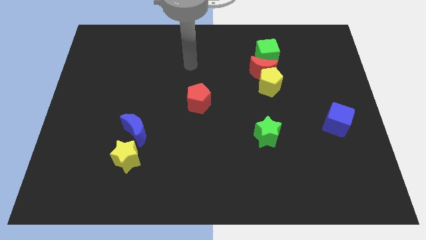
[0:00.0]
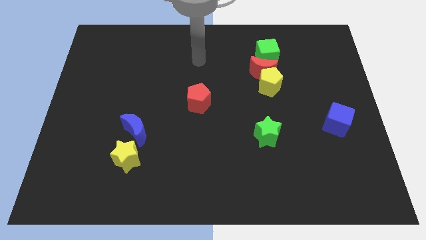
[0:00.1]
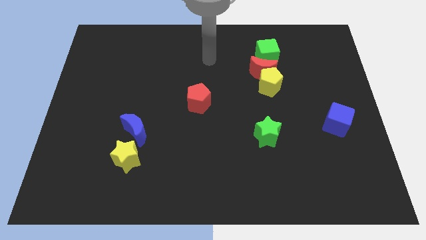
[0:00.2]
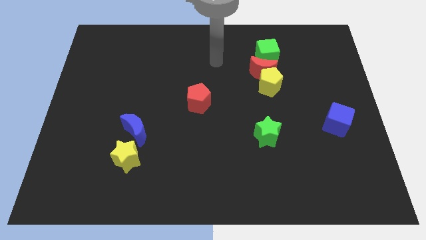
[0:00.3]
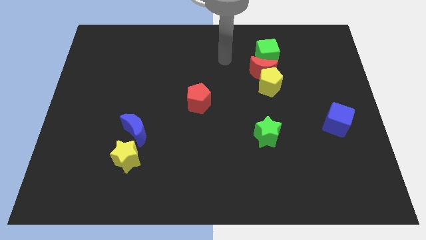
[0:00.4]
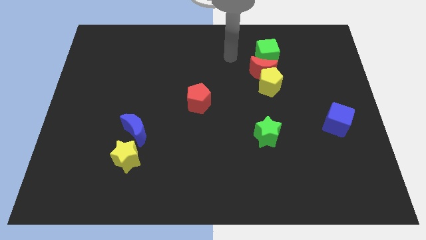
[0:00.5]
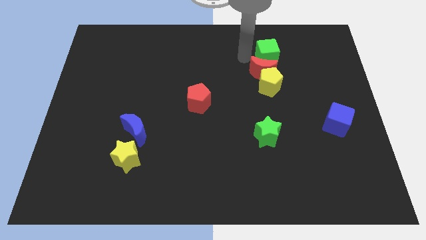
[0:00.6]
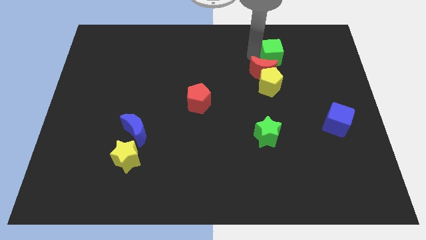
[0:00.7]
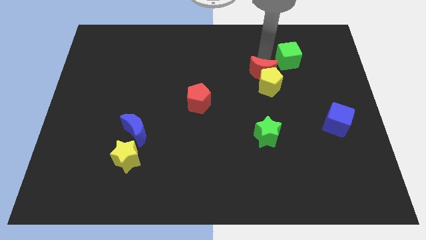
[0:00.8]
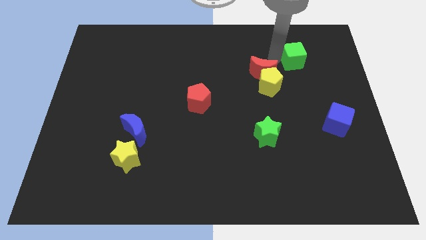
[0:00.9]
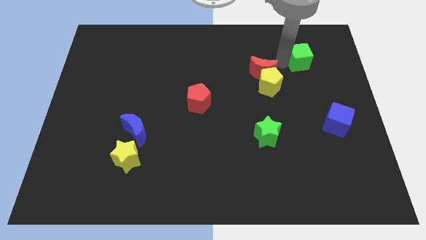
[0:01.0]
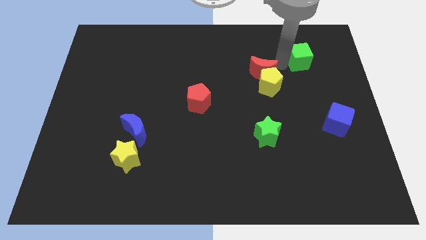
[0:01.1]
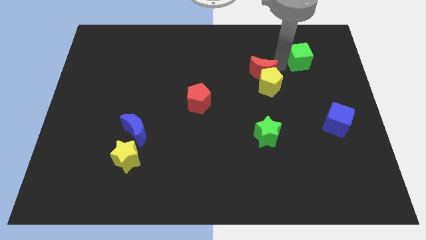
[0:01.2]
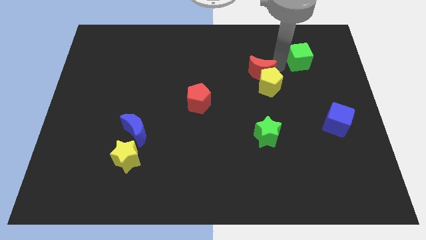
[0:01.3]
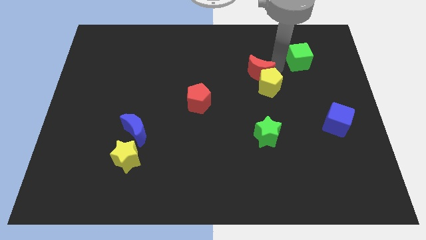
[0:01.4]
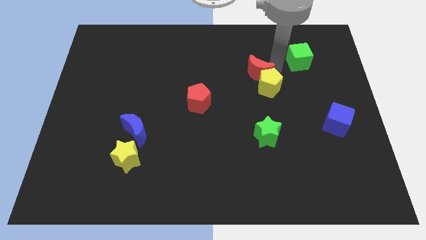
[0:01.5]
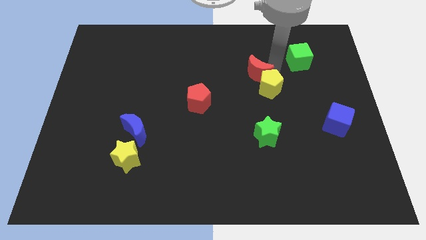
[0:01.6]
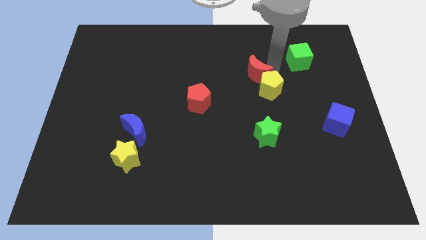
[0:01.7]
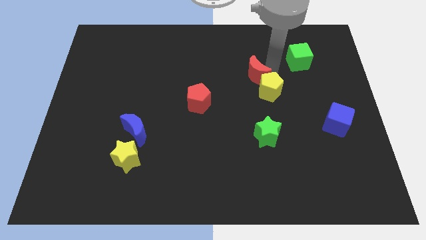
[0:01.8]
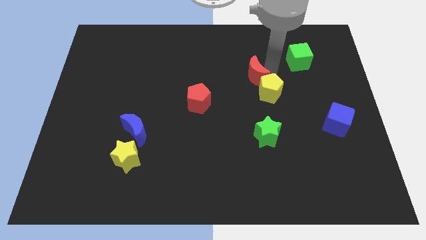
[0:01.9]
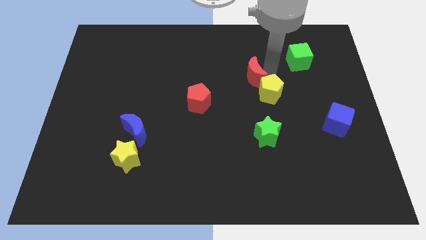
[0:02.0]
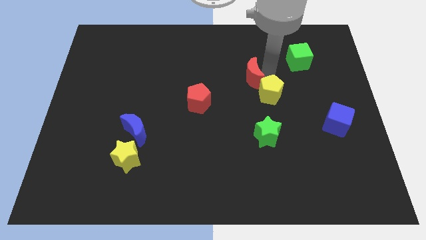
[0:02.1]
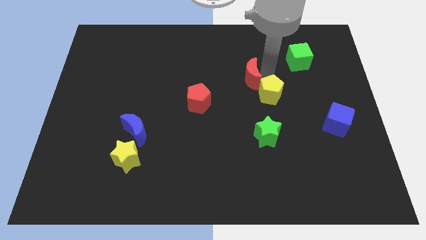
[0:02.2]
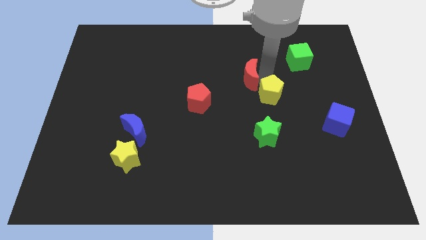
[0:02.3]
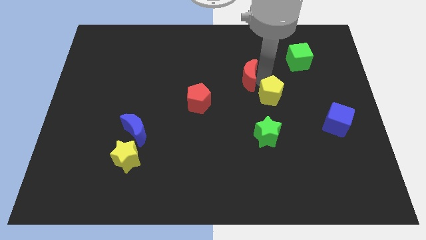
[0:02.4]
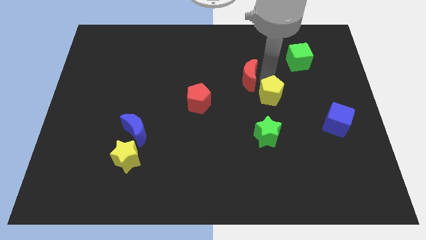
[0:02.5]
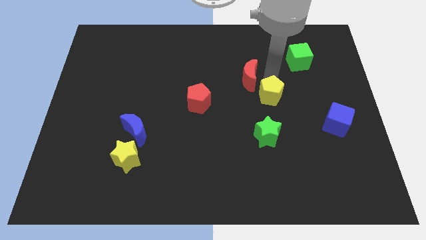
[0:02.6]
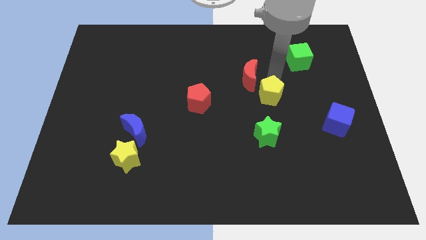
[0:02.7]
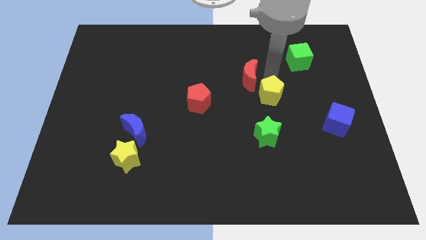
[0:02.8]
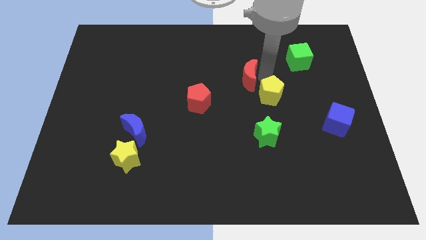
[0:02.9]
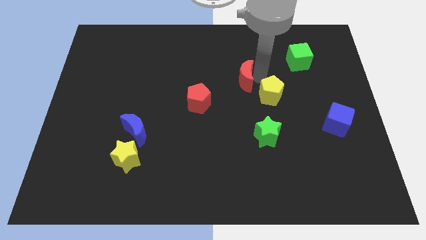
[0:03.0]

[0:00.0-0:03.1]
separate the red moon from the yellow pentagon and green cube

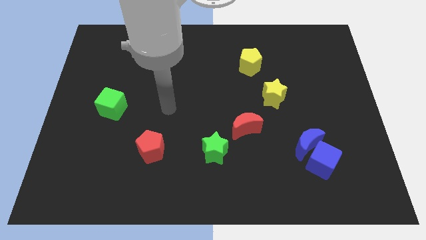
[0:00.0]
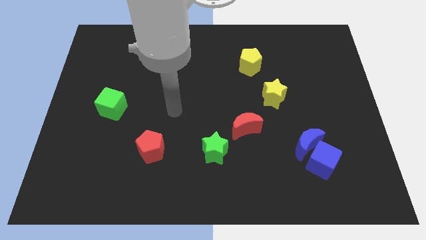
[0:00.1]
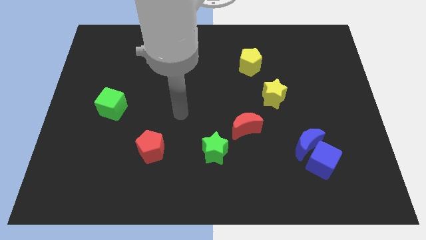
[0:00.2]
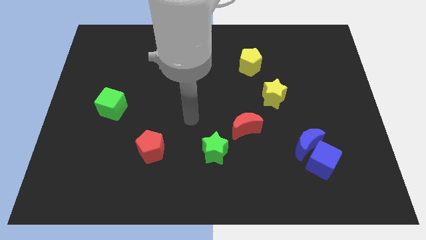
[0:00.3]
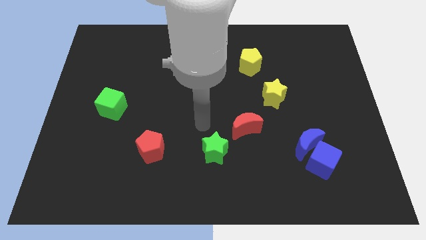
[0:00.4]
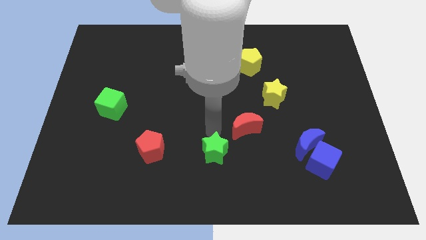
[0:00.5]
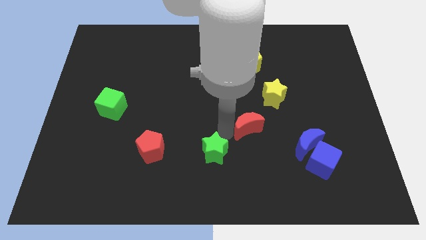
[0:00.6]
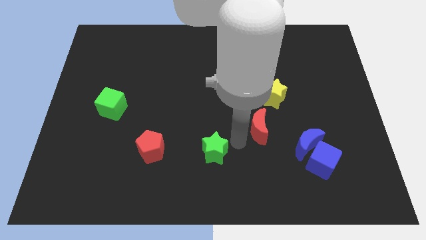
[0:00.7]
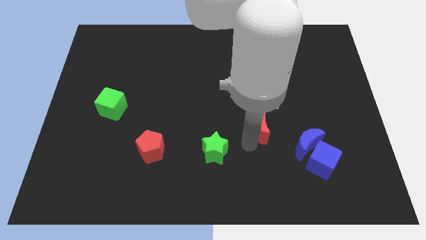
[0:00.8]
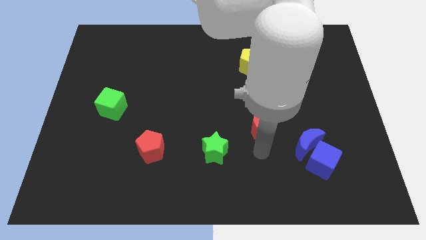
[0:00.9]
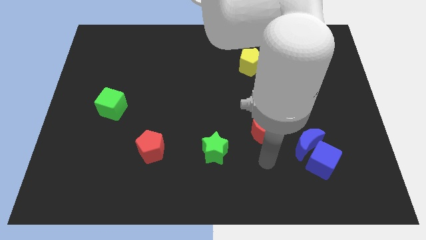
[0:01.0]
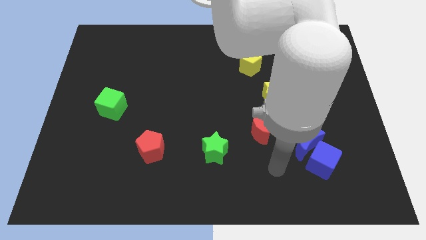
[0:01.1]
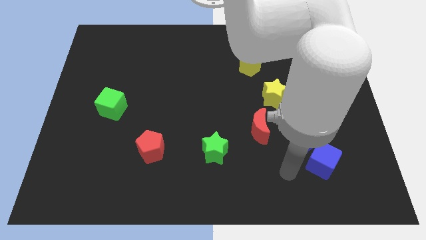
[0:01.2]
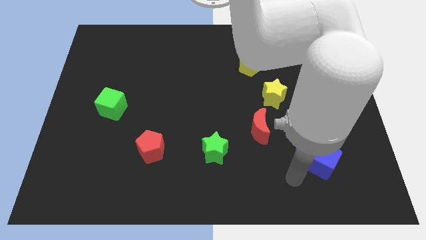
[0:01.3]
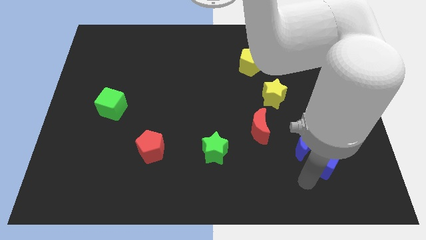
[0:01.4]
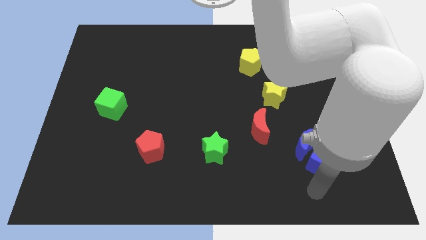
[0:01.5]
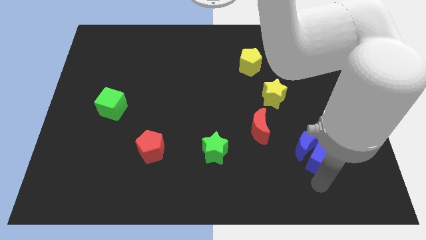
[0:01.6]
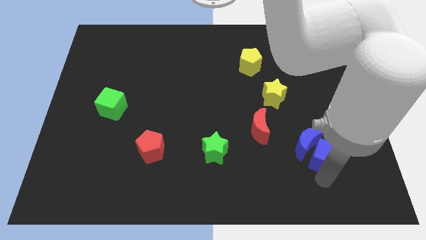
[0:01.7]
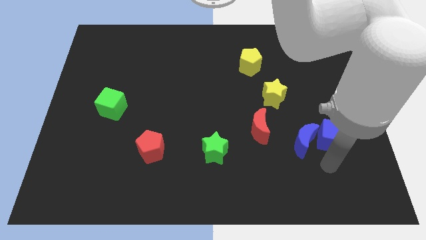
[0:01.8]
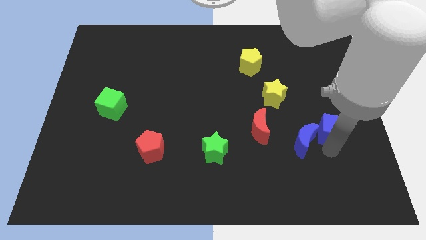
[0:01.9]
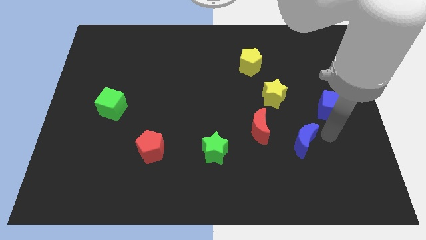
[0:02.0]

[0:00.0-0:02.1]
move the blue moon away from the blue cube

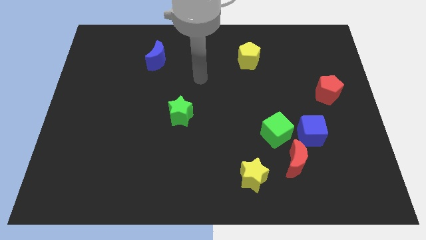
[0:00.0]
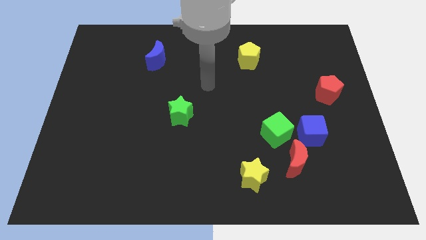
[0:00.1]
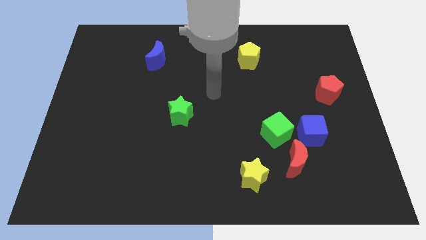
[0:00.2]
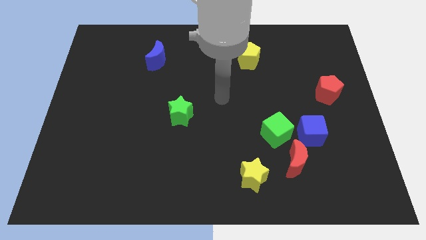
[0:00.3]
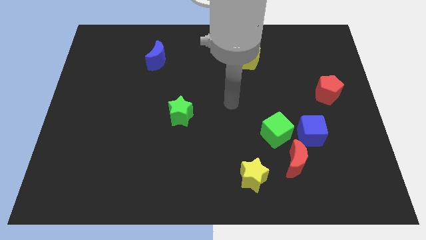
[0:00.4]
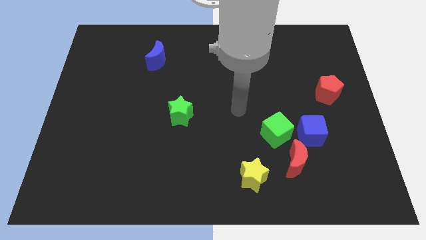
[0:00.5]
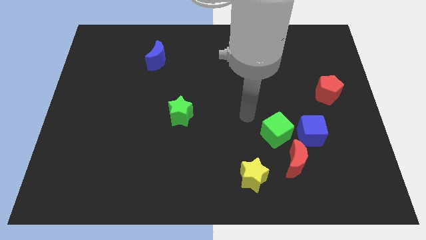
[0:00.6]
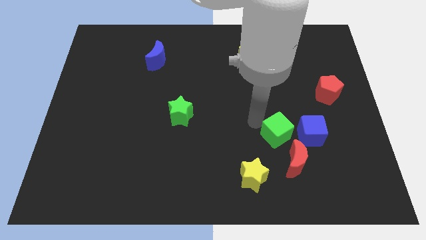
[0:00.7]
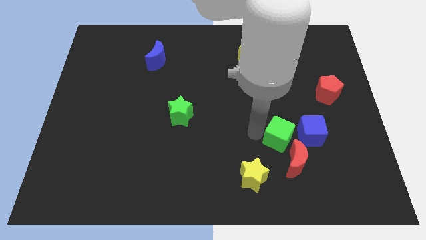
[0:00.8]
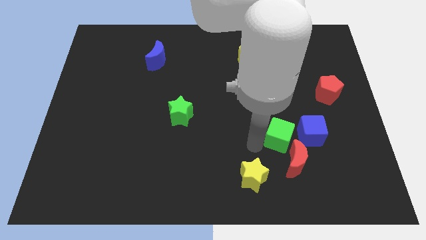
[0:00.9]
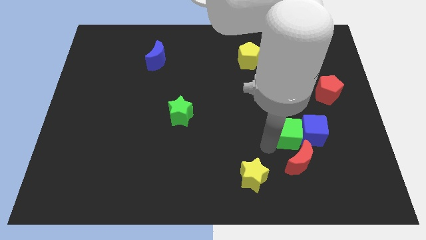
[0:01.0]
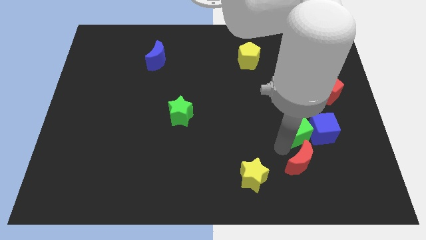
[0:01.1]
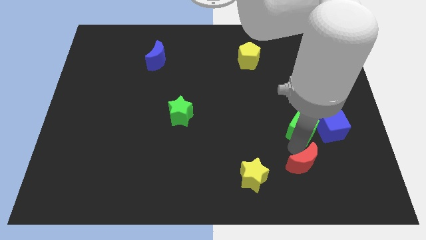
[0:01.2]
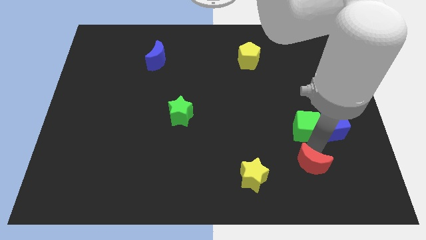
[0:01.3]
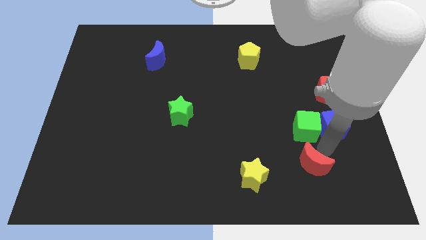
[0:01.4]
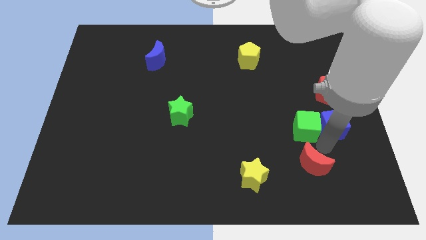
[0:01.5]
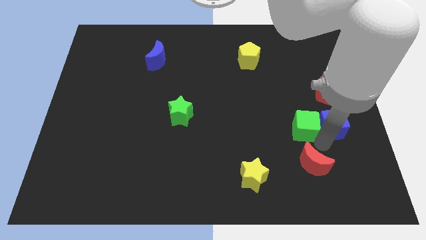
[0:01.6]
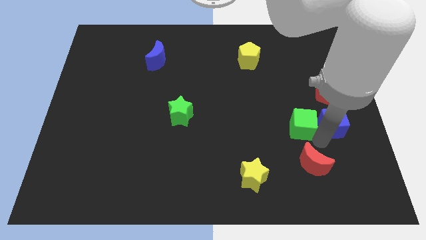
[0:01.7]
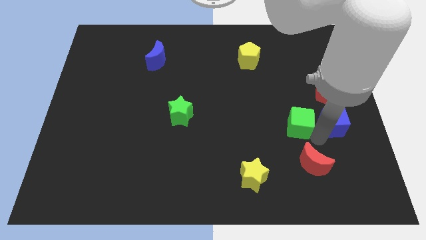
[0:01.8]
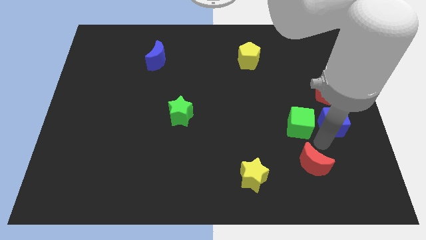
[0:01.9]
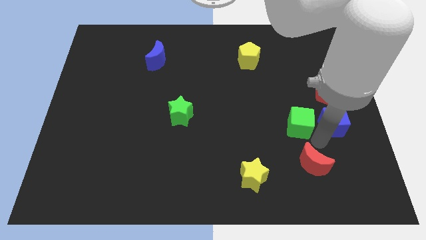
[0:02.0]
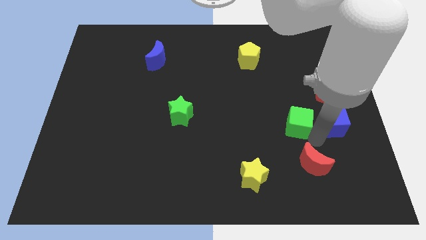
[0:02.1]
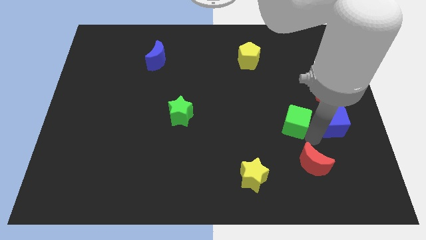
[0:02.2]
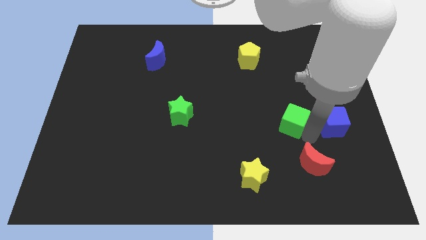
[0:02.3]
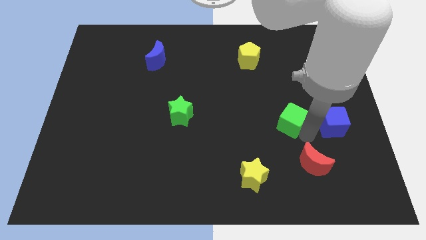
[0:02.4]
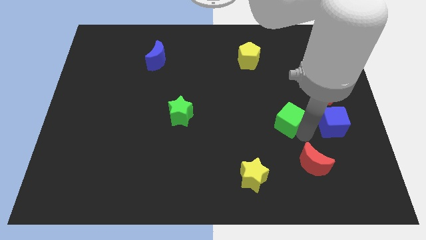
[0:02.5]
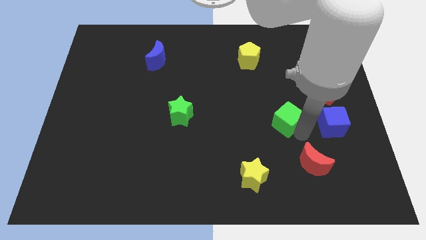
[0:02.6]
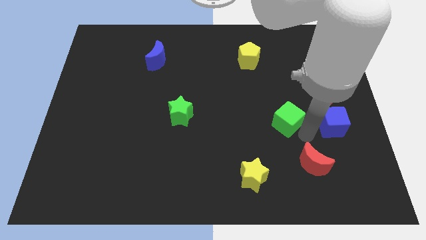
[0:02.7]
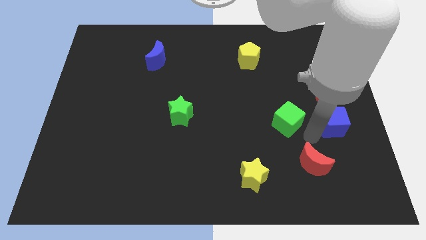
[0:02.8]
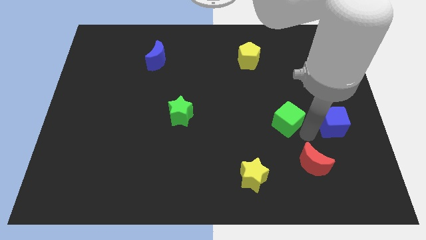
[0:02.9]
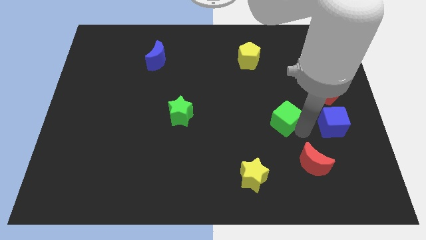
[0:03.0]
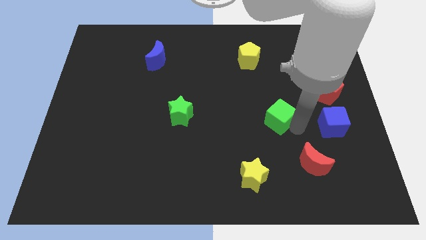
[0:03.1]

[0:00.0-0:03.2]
pull the green cube apart from the blue cube and red moon

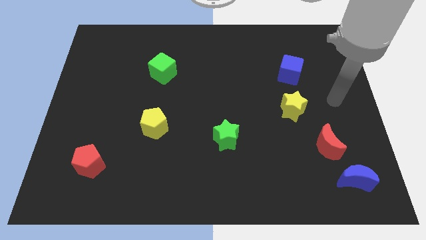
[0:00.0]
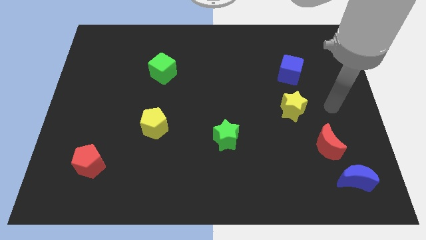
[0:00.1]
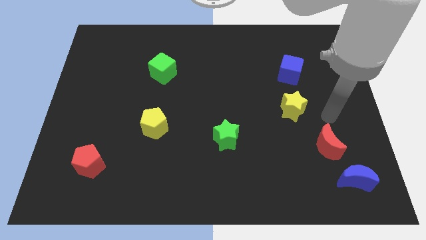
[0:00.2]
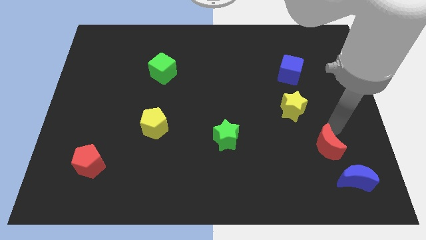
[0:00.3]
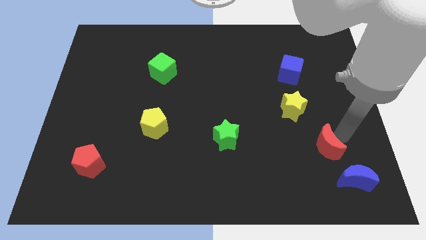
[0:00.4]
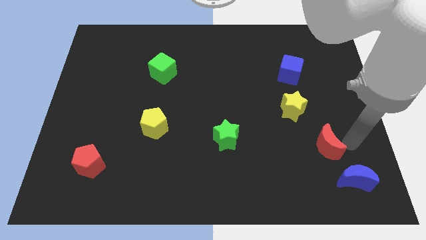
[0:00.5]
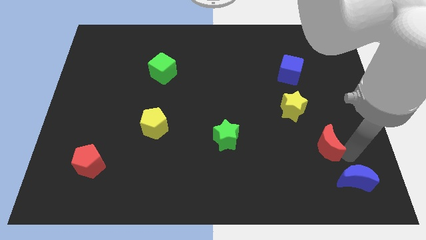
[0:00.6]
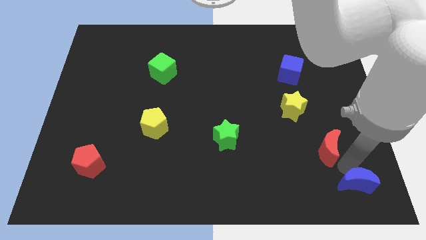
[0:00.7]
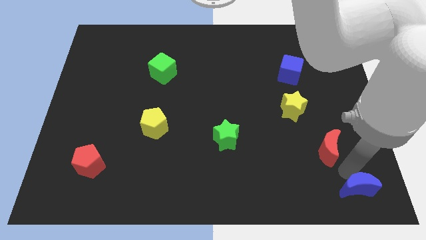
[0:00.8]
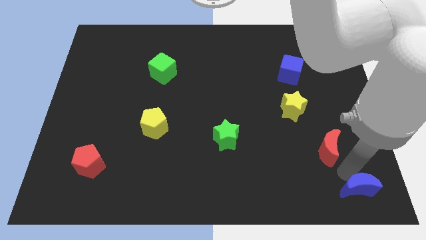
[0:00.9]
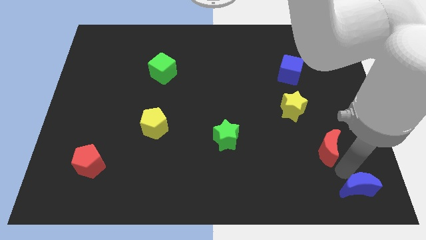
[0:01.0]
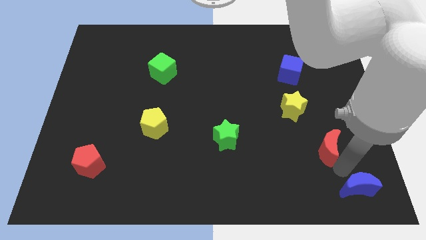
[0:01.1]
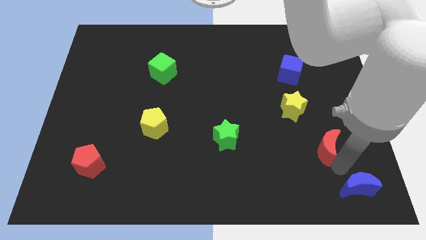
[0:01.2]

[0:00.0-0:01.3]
pull the red moon apart from the blue moon
